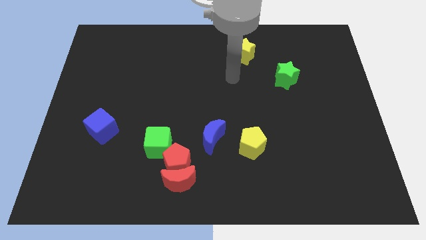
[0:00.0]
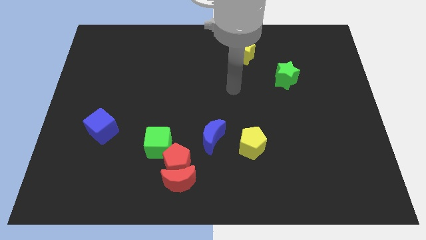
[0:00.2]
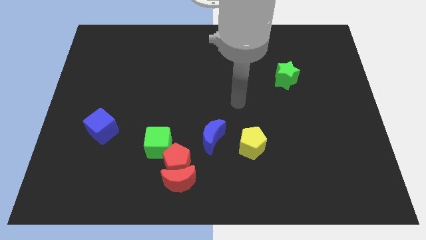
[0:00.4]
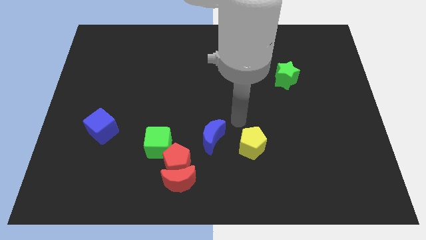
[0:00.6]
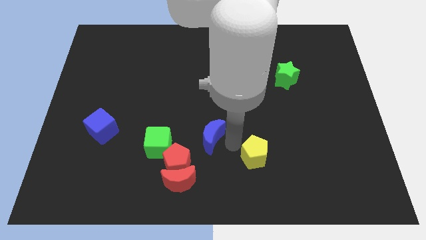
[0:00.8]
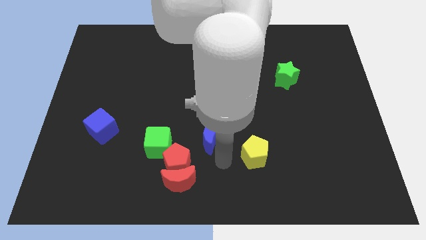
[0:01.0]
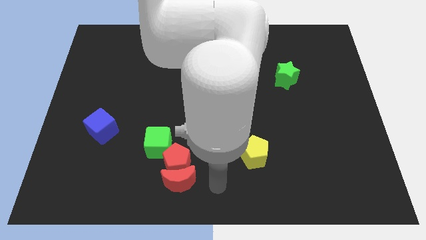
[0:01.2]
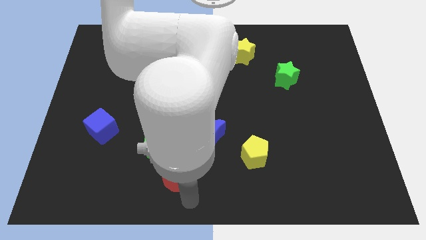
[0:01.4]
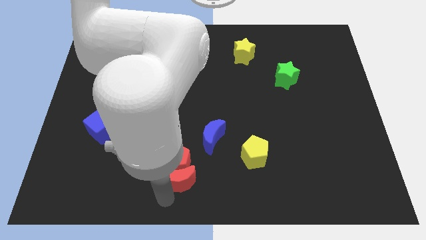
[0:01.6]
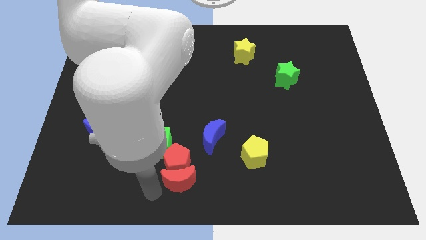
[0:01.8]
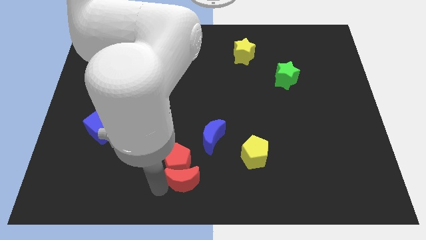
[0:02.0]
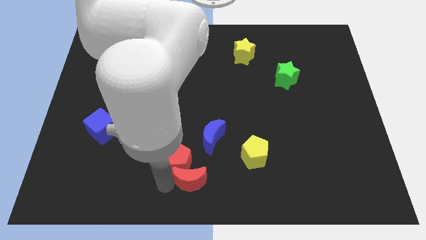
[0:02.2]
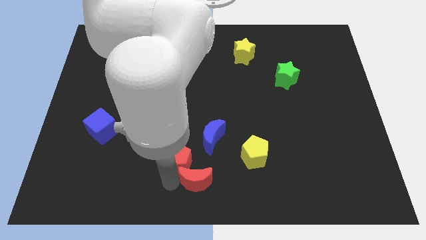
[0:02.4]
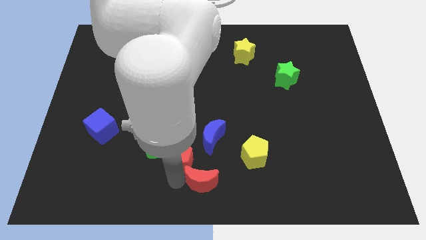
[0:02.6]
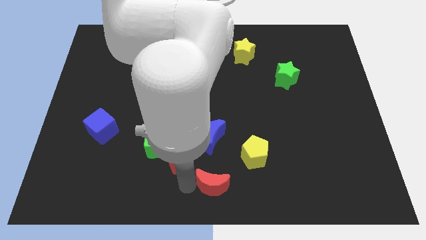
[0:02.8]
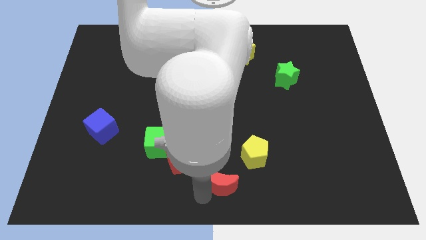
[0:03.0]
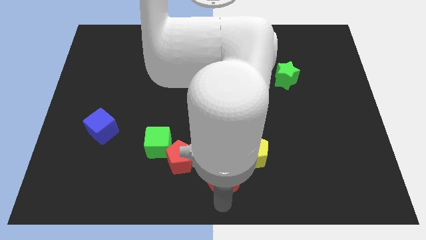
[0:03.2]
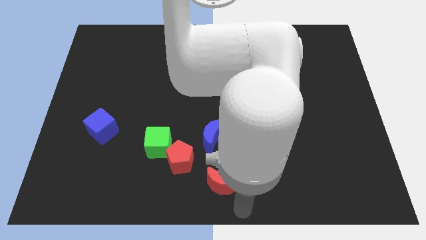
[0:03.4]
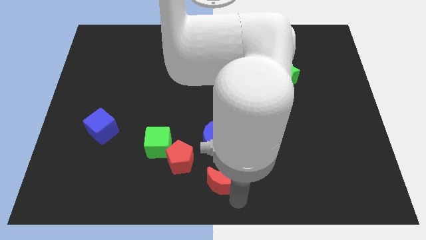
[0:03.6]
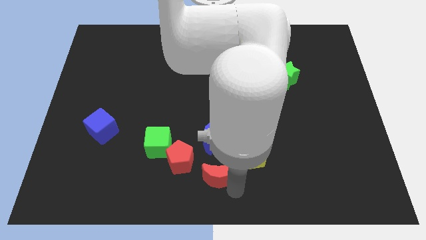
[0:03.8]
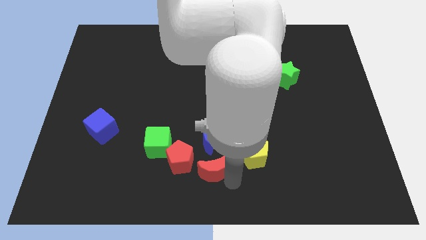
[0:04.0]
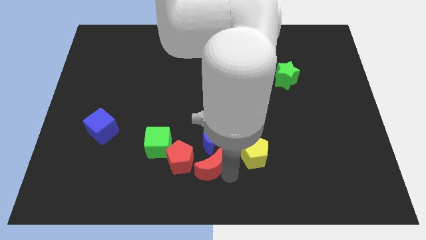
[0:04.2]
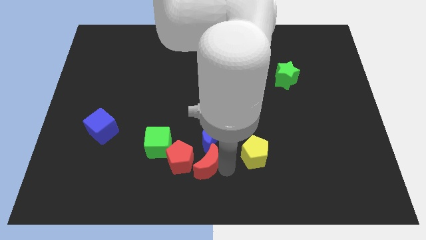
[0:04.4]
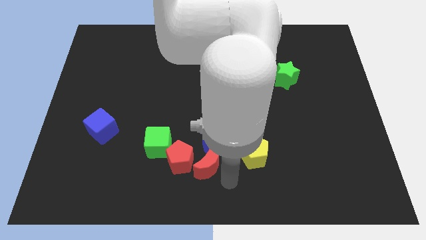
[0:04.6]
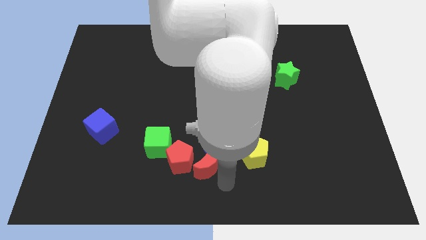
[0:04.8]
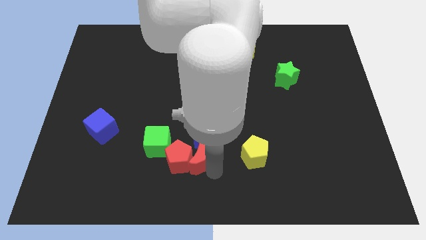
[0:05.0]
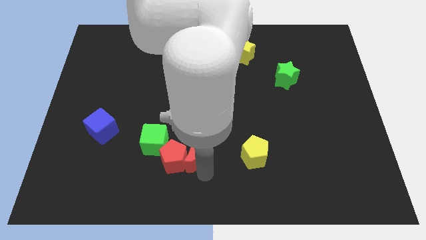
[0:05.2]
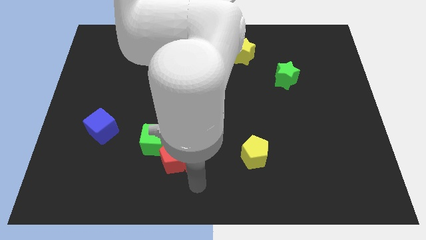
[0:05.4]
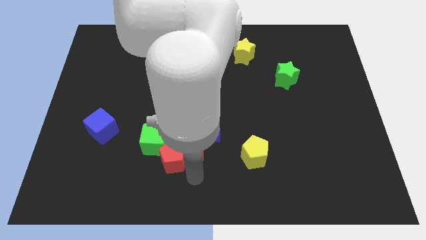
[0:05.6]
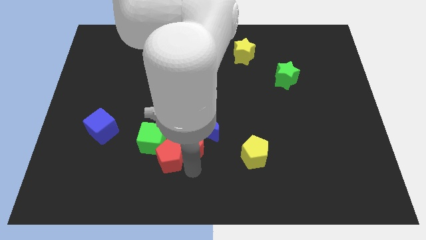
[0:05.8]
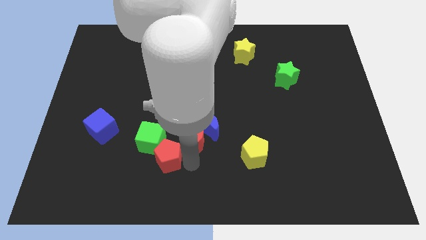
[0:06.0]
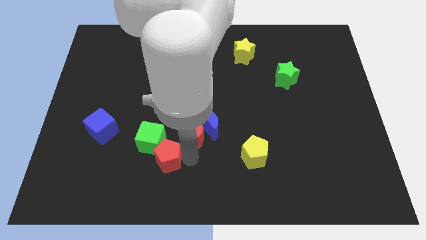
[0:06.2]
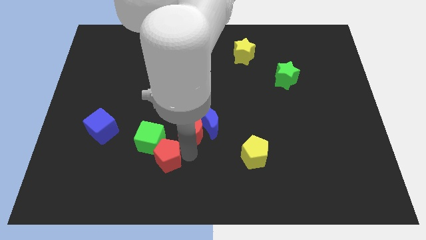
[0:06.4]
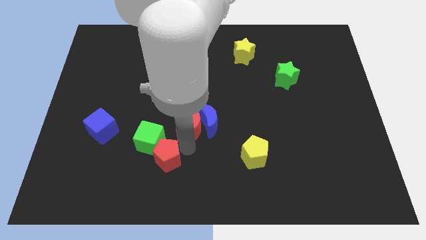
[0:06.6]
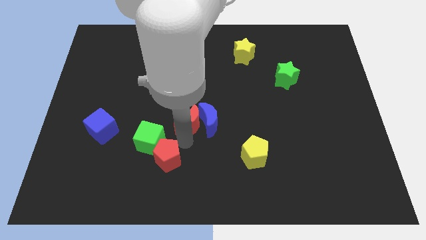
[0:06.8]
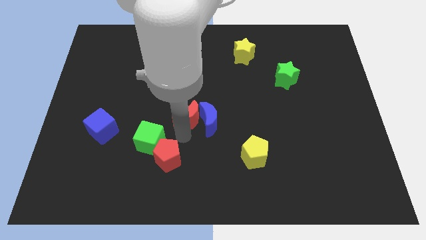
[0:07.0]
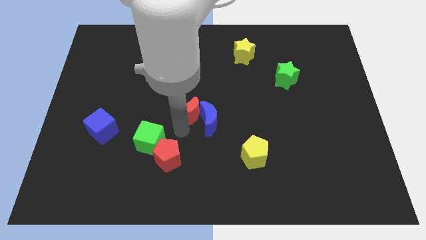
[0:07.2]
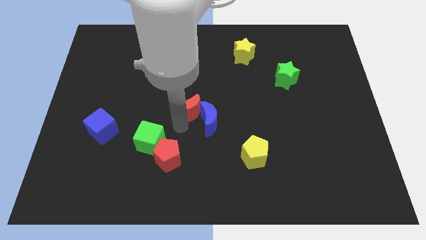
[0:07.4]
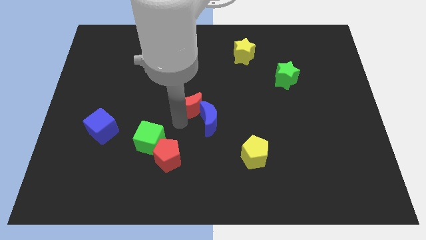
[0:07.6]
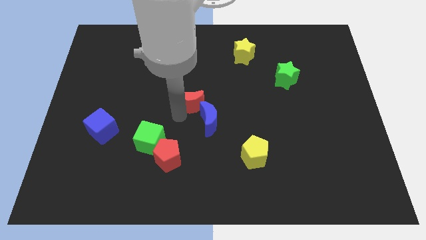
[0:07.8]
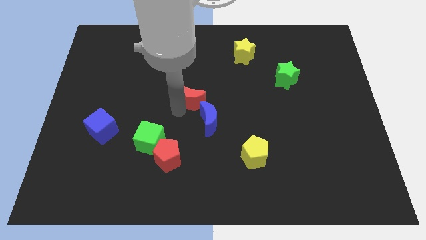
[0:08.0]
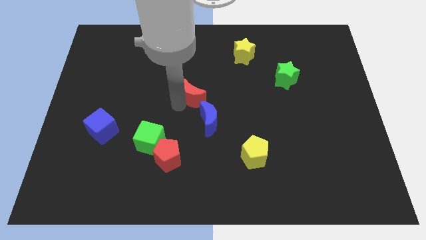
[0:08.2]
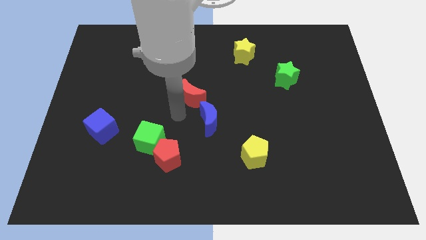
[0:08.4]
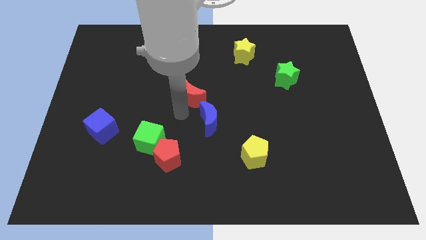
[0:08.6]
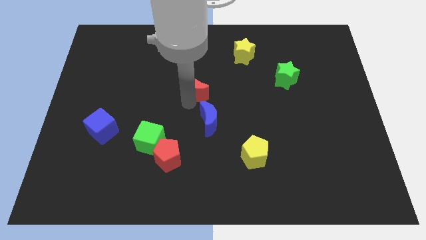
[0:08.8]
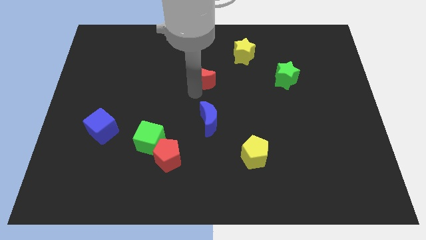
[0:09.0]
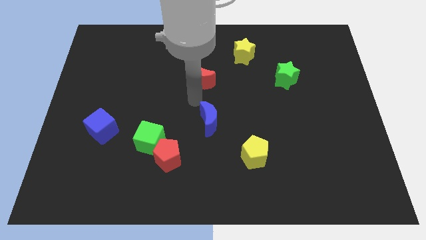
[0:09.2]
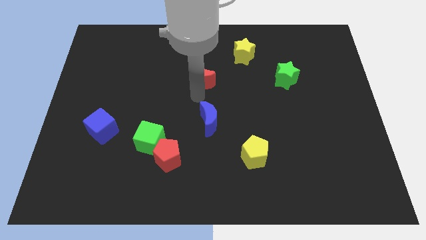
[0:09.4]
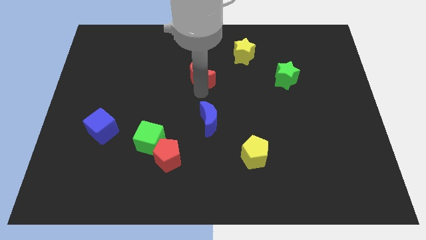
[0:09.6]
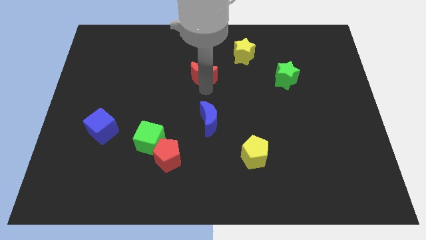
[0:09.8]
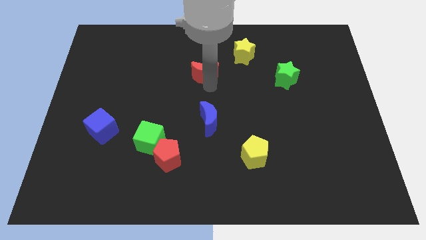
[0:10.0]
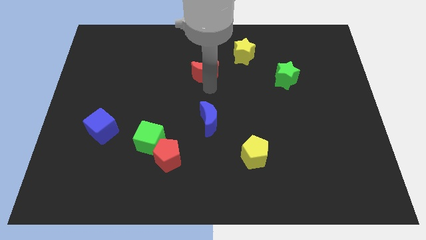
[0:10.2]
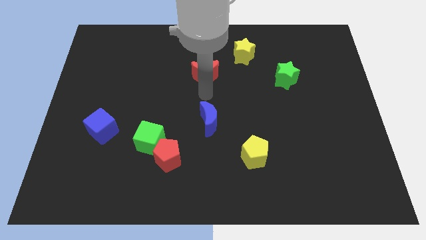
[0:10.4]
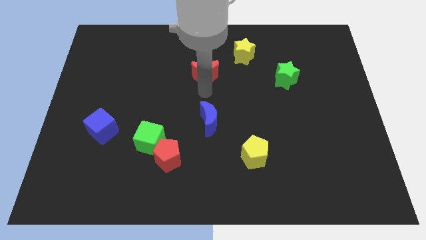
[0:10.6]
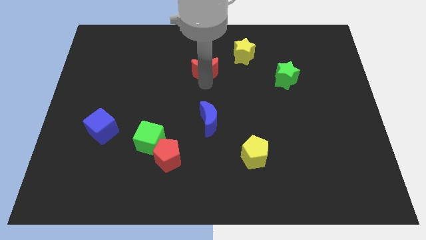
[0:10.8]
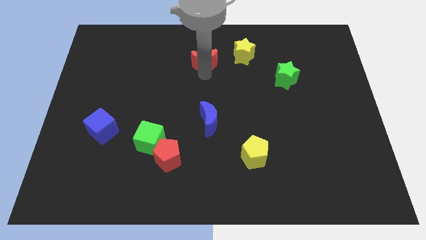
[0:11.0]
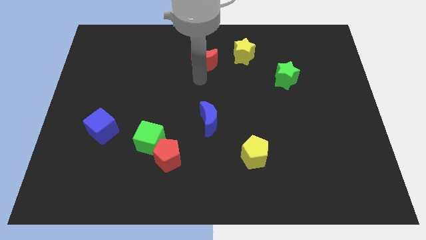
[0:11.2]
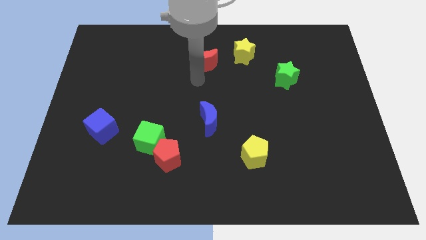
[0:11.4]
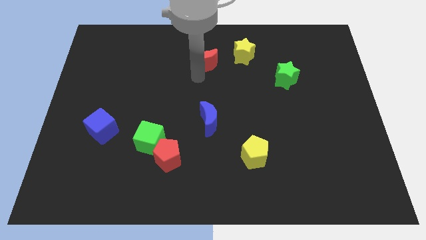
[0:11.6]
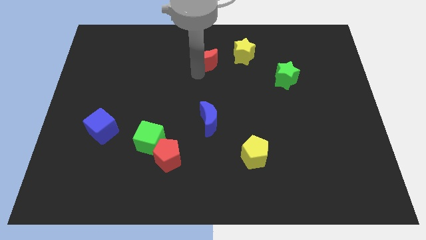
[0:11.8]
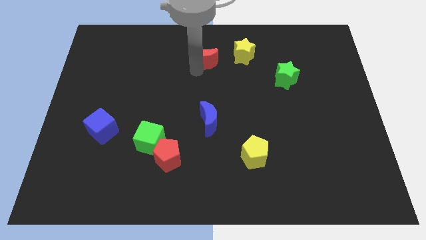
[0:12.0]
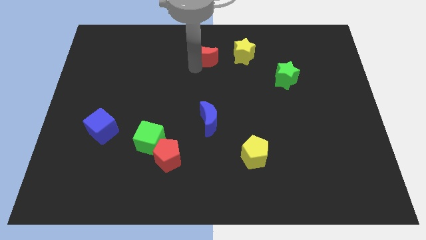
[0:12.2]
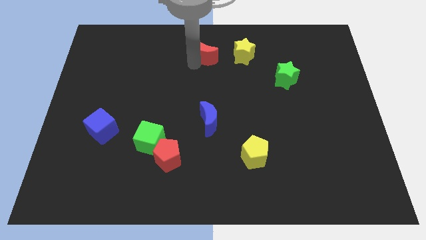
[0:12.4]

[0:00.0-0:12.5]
push the red moon to the towards your base

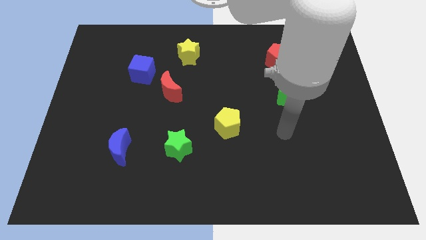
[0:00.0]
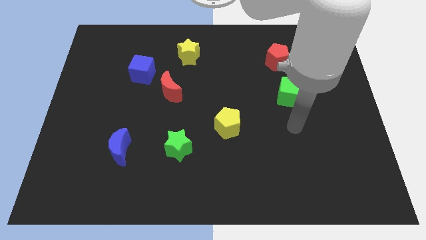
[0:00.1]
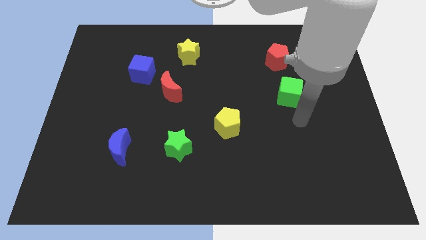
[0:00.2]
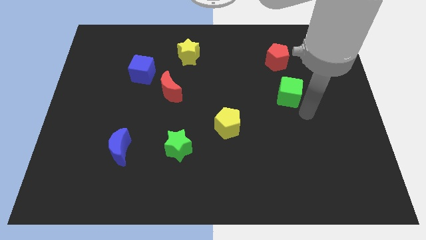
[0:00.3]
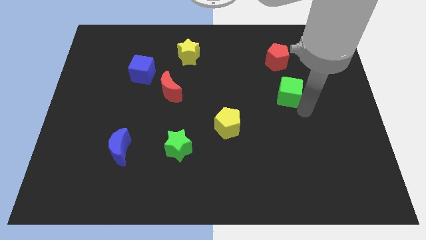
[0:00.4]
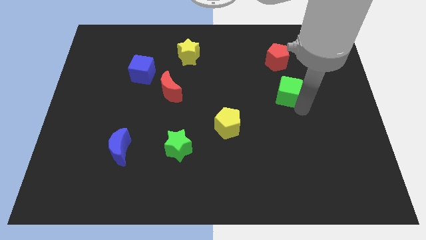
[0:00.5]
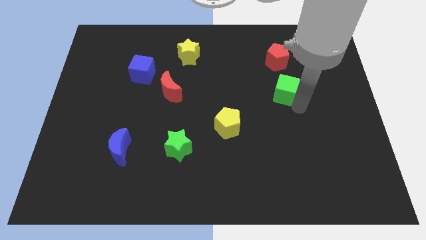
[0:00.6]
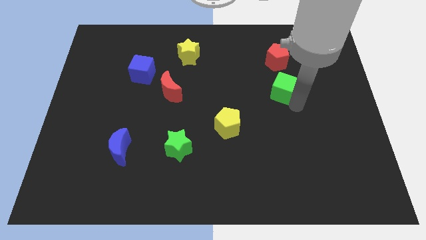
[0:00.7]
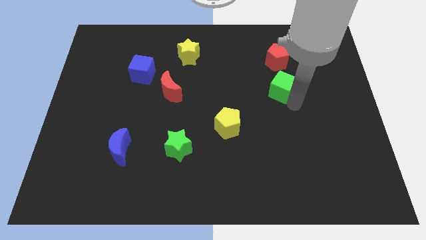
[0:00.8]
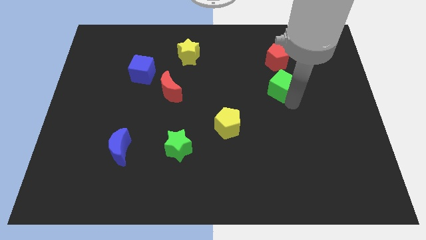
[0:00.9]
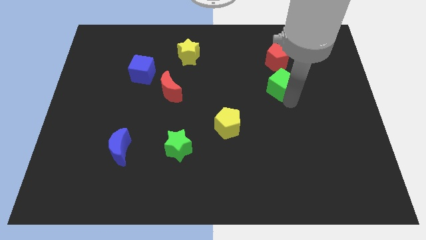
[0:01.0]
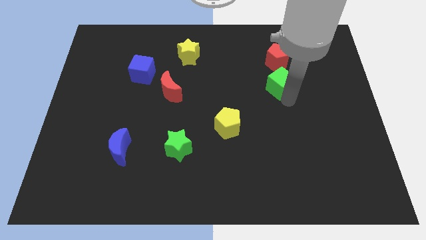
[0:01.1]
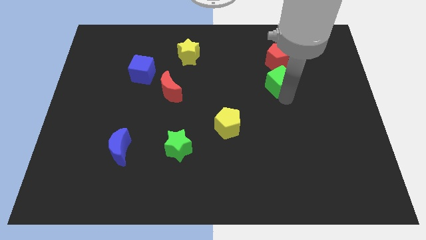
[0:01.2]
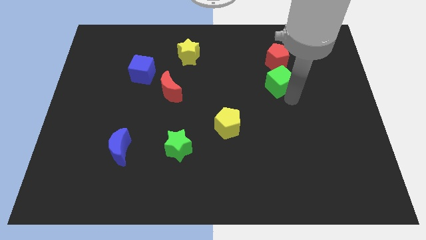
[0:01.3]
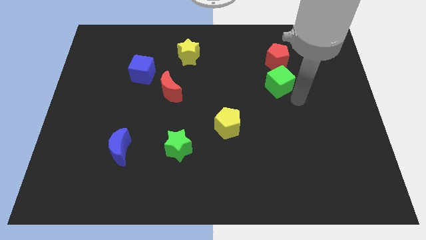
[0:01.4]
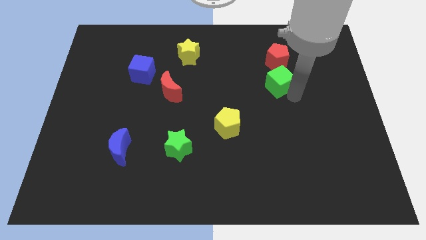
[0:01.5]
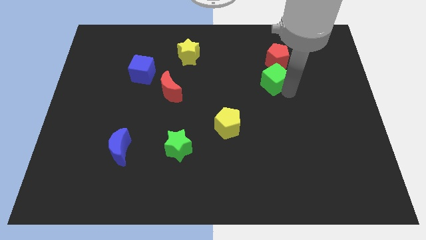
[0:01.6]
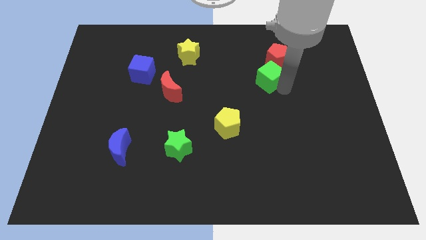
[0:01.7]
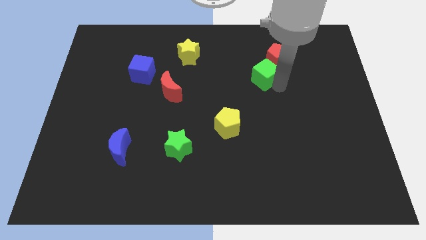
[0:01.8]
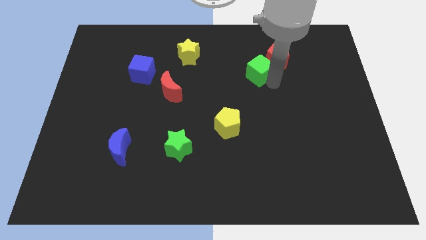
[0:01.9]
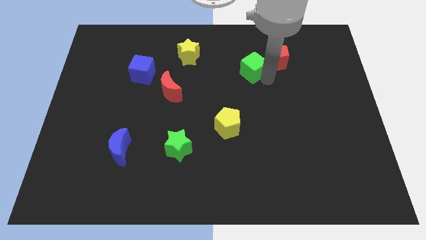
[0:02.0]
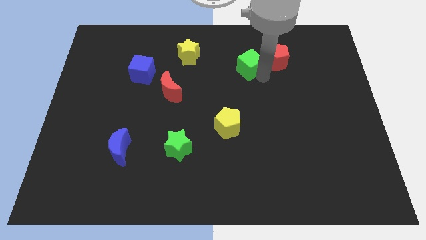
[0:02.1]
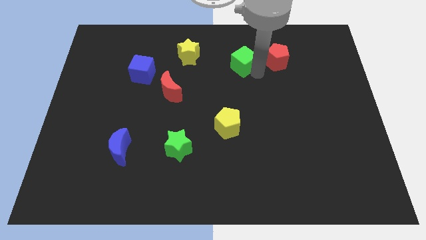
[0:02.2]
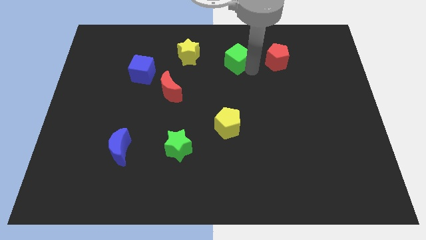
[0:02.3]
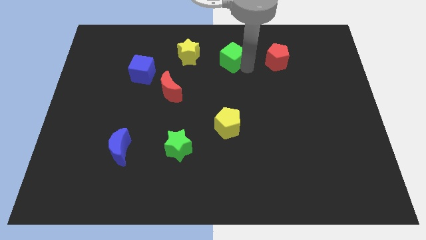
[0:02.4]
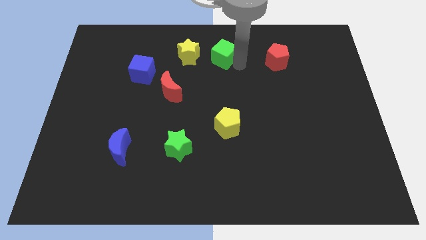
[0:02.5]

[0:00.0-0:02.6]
slide the green cube to the top side
